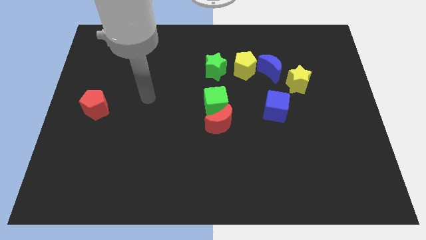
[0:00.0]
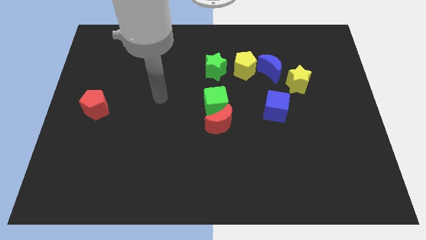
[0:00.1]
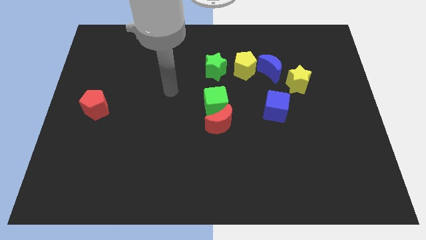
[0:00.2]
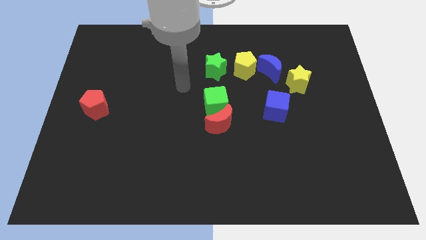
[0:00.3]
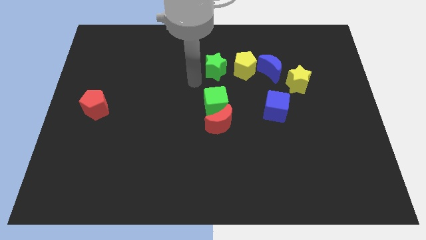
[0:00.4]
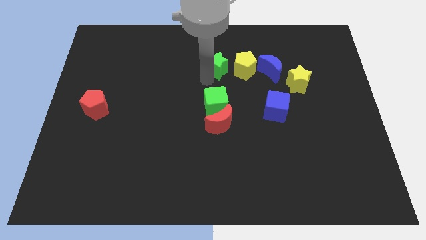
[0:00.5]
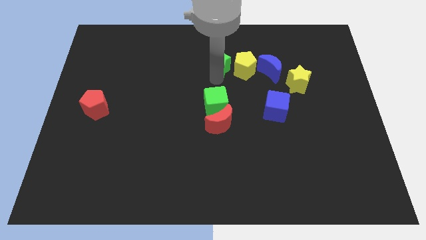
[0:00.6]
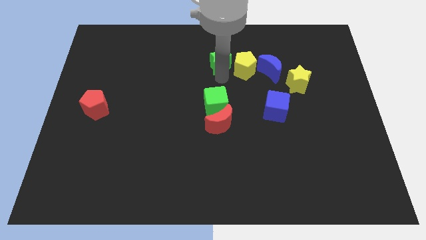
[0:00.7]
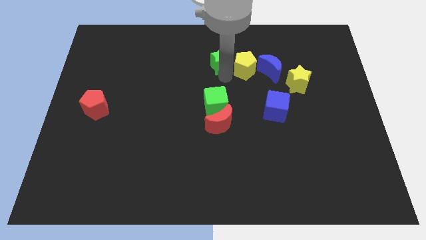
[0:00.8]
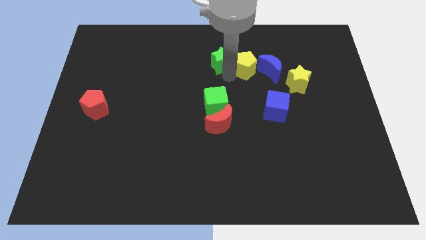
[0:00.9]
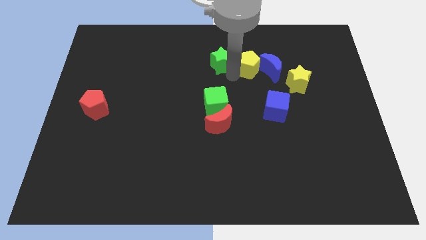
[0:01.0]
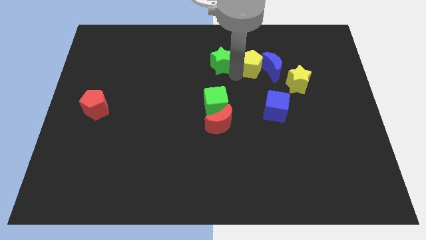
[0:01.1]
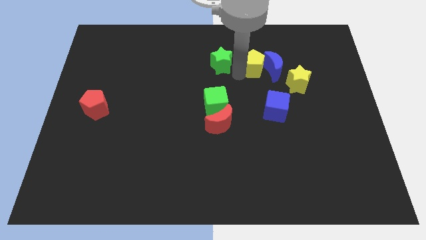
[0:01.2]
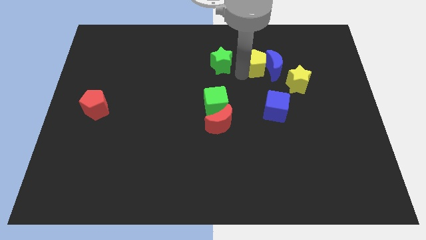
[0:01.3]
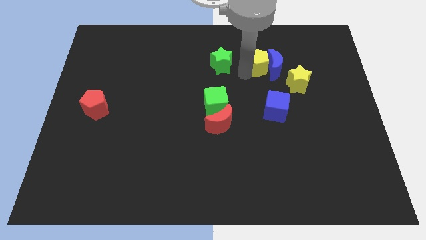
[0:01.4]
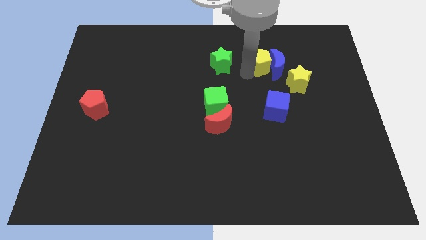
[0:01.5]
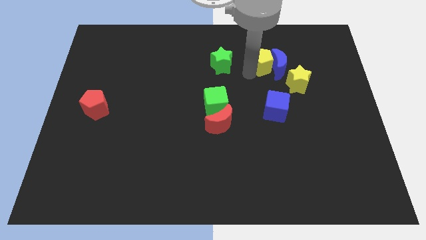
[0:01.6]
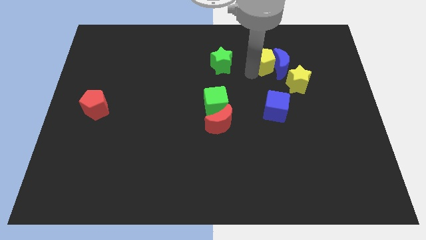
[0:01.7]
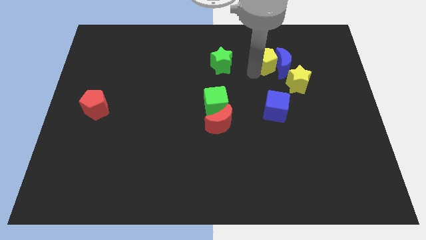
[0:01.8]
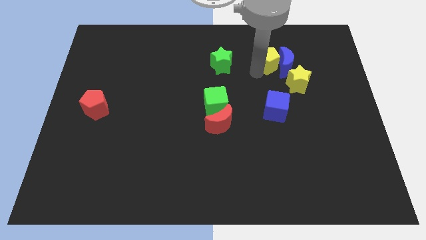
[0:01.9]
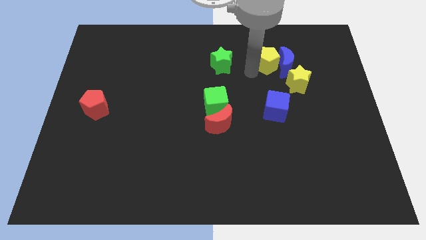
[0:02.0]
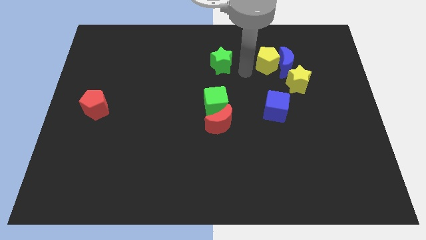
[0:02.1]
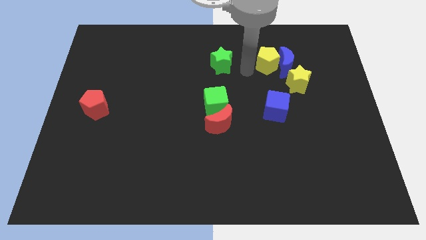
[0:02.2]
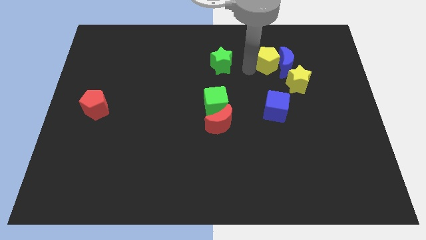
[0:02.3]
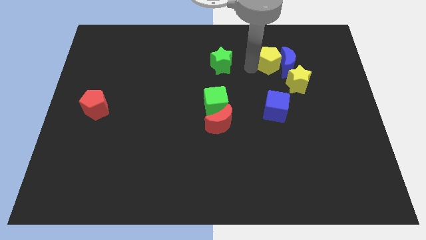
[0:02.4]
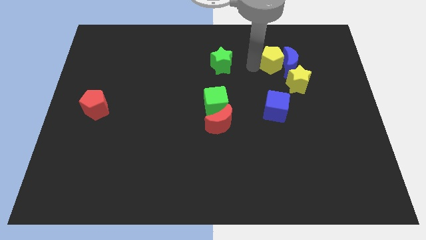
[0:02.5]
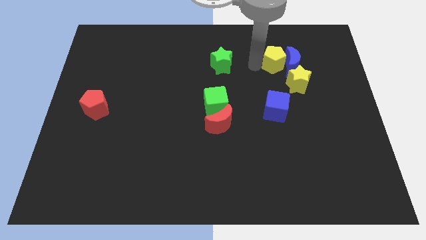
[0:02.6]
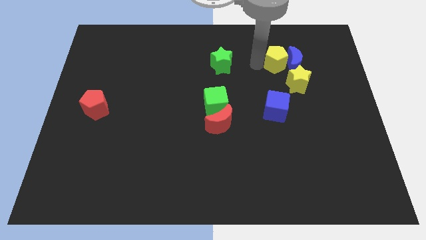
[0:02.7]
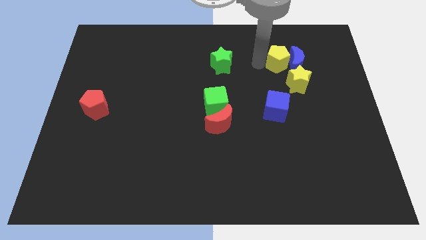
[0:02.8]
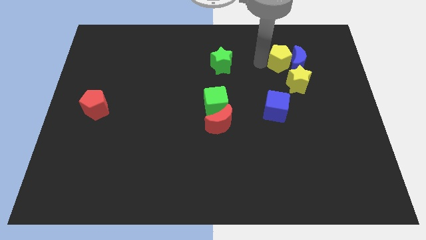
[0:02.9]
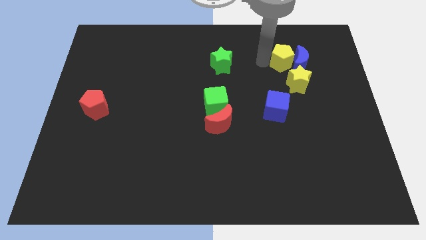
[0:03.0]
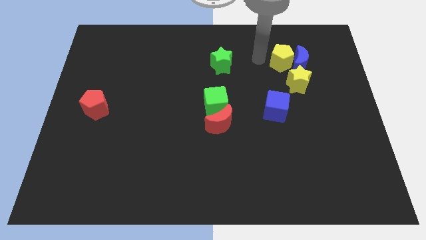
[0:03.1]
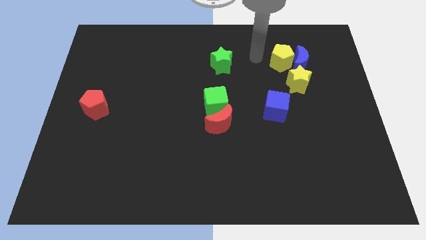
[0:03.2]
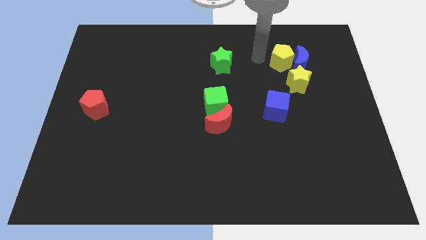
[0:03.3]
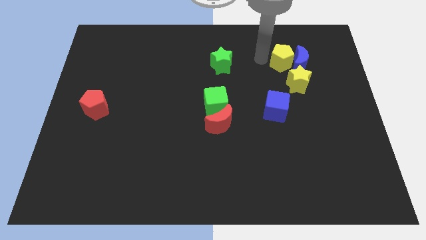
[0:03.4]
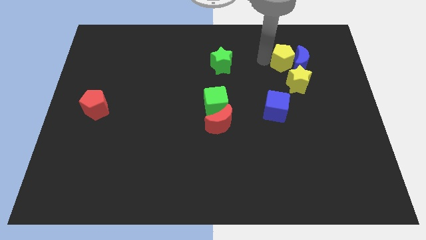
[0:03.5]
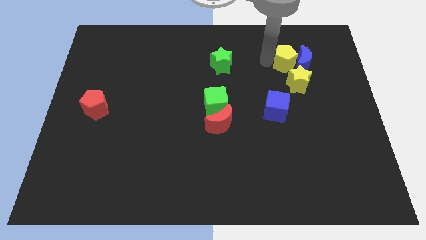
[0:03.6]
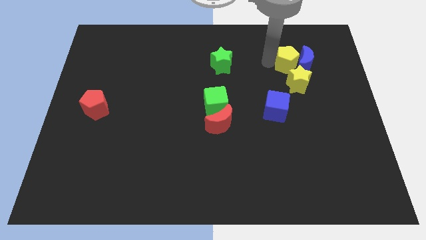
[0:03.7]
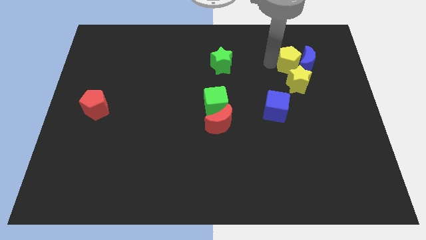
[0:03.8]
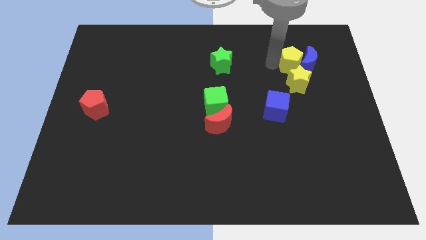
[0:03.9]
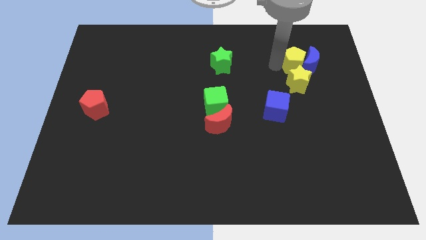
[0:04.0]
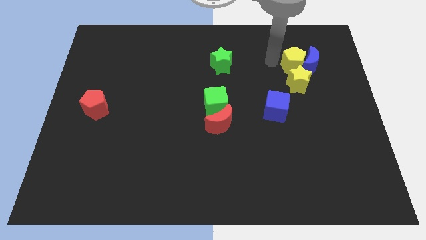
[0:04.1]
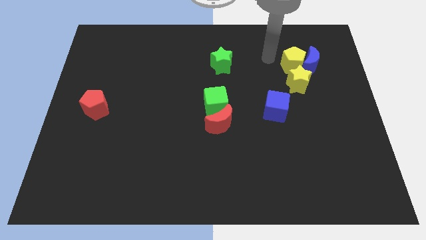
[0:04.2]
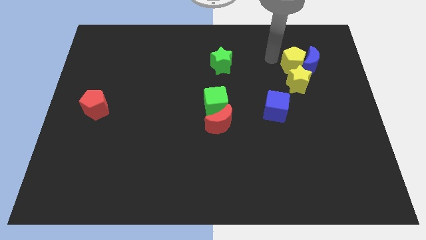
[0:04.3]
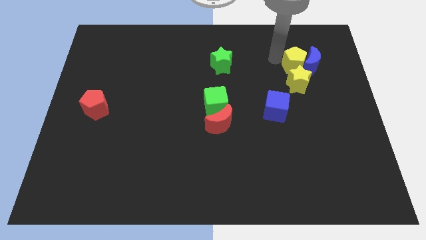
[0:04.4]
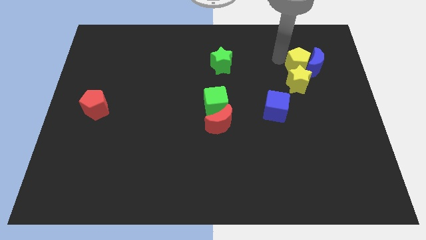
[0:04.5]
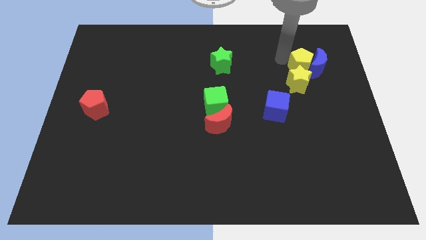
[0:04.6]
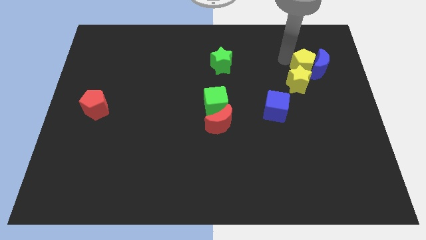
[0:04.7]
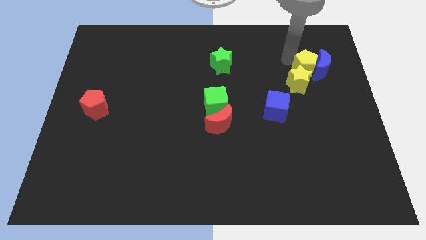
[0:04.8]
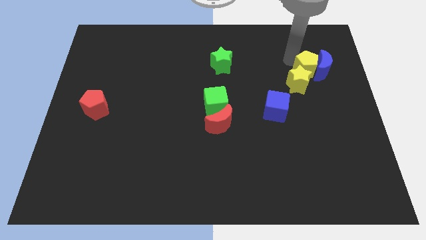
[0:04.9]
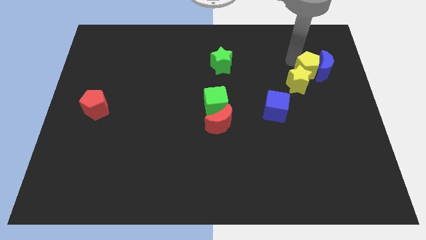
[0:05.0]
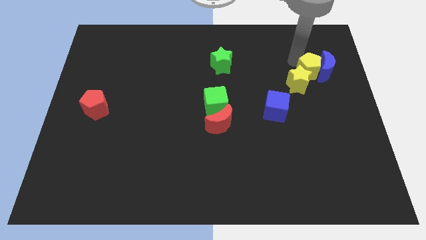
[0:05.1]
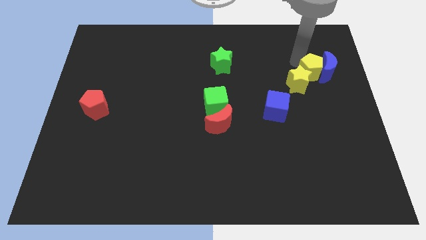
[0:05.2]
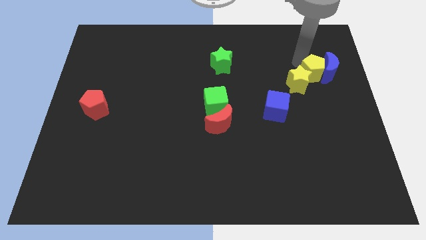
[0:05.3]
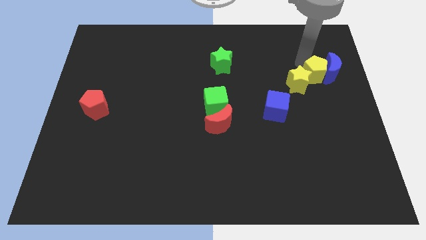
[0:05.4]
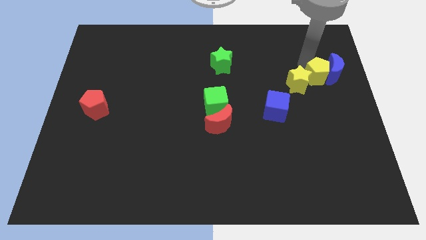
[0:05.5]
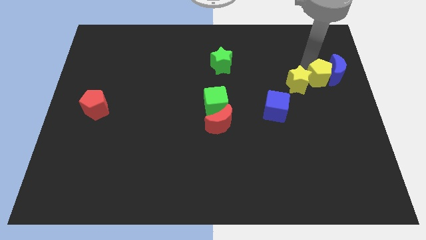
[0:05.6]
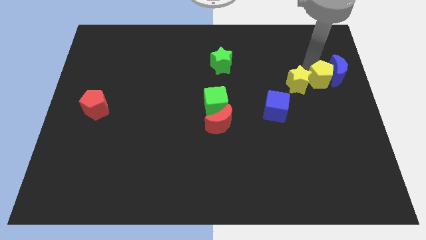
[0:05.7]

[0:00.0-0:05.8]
slide the yellow pentagon to the right side of the board

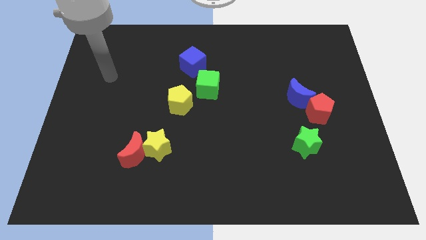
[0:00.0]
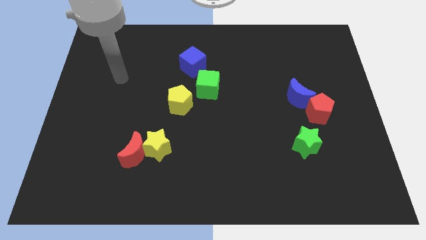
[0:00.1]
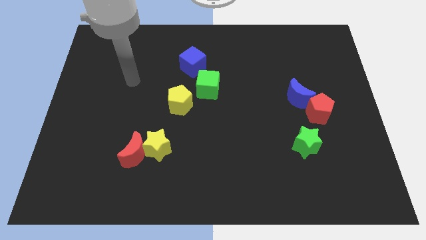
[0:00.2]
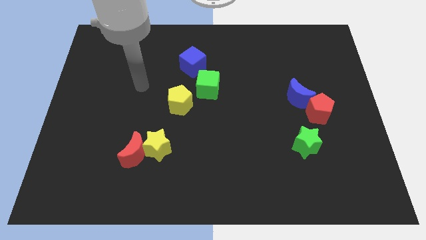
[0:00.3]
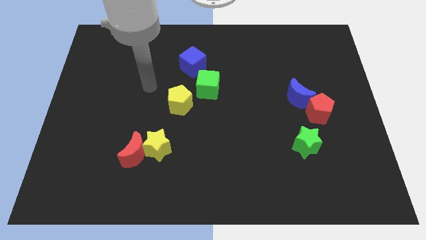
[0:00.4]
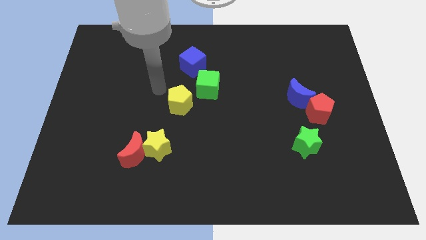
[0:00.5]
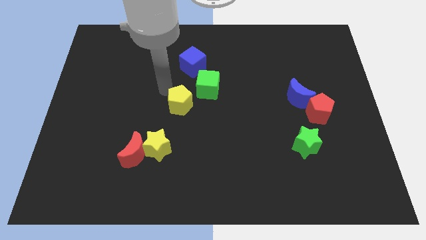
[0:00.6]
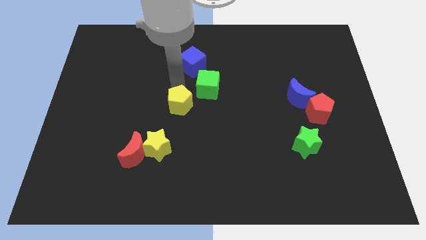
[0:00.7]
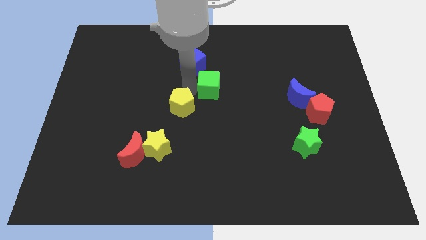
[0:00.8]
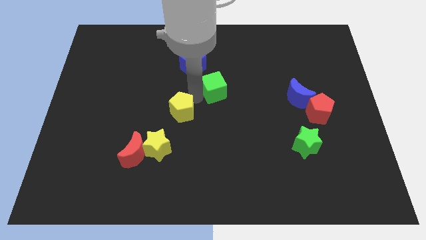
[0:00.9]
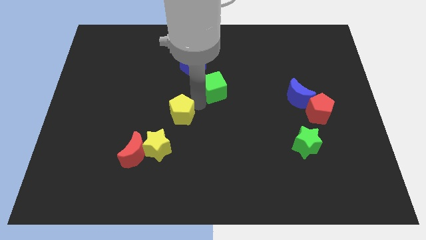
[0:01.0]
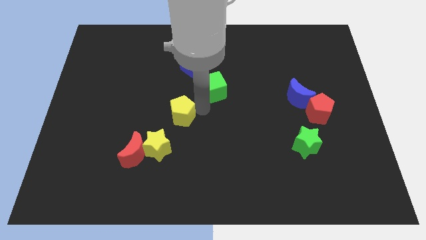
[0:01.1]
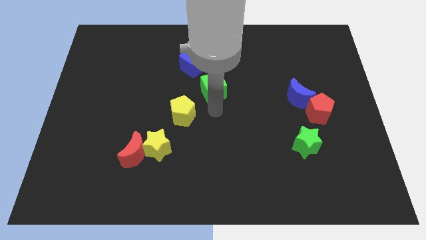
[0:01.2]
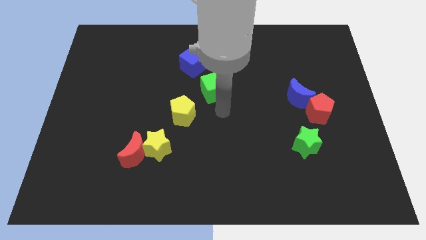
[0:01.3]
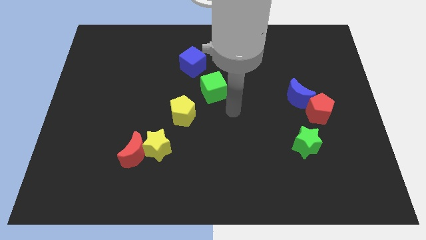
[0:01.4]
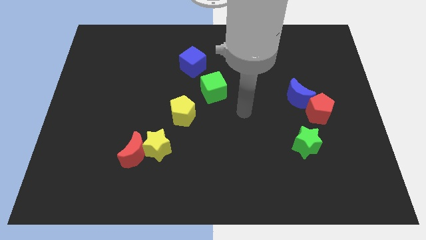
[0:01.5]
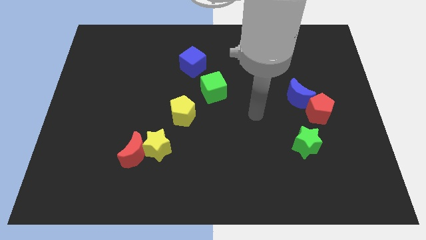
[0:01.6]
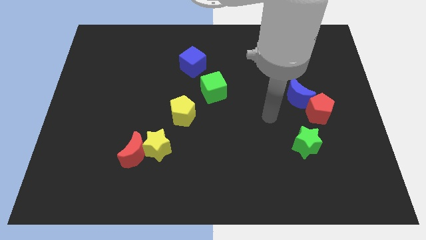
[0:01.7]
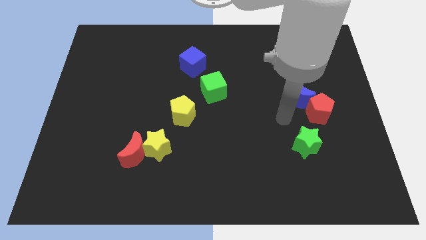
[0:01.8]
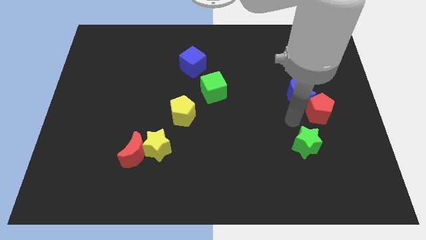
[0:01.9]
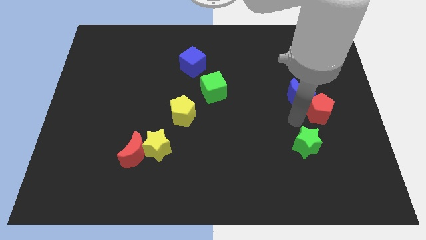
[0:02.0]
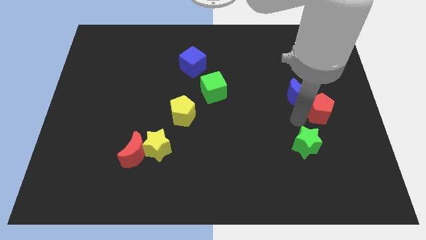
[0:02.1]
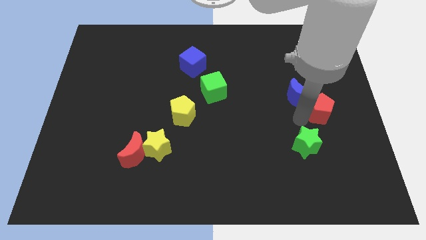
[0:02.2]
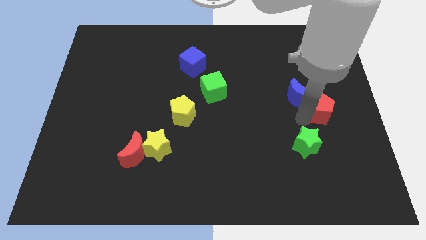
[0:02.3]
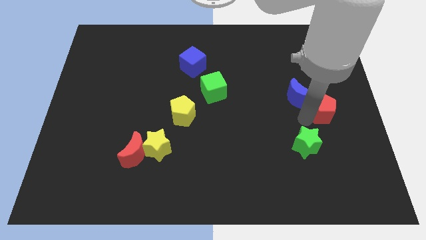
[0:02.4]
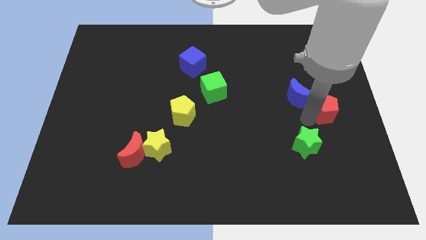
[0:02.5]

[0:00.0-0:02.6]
move the red pentagon to the right side
